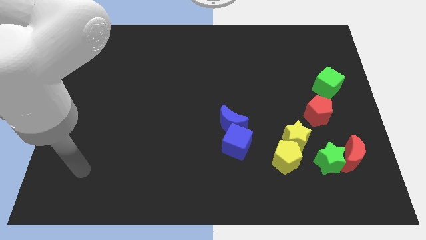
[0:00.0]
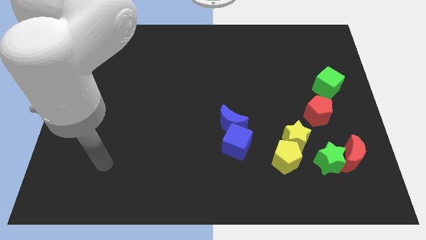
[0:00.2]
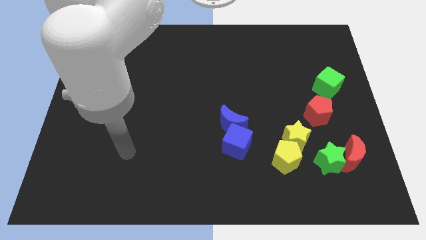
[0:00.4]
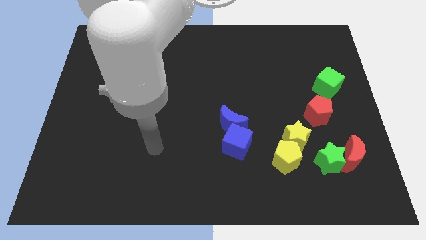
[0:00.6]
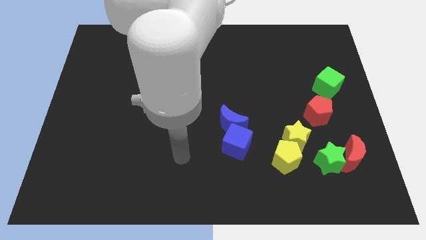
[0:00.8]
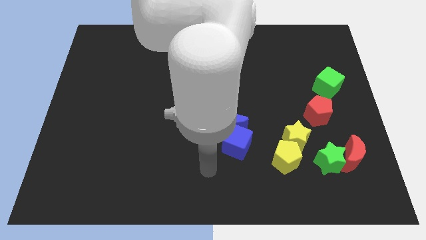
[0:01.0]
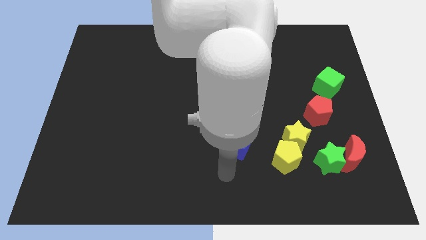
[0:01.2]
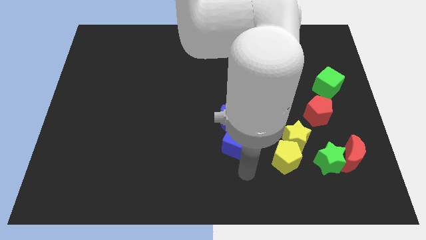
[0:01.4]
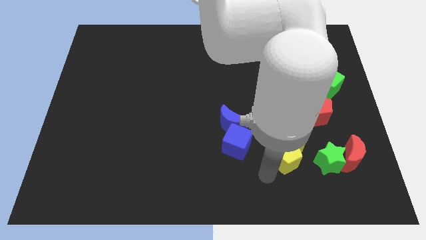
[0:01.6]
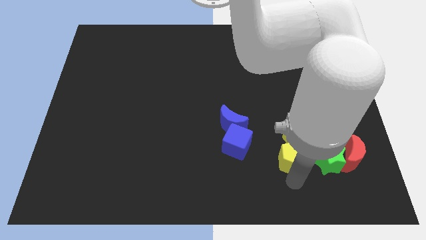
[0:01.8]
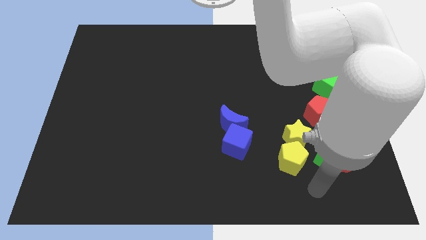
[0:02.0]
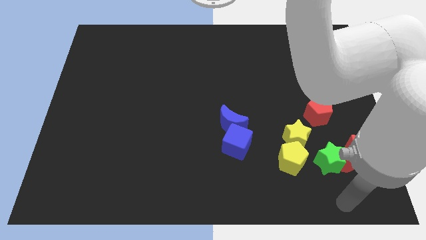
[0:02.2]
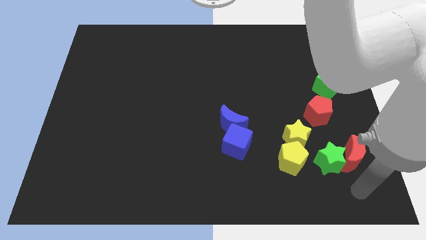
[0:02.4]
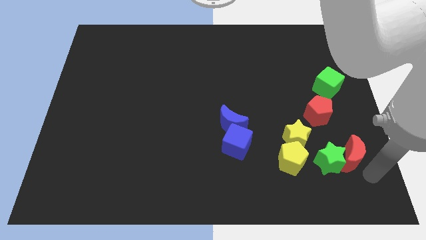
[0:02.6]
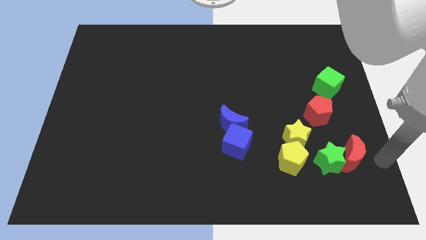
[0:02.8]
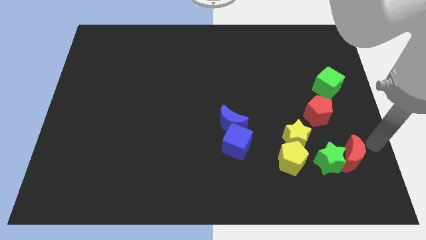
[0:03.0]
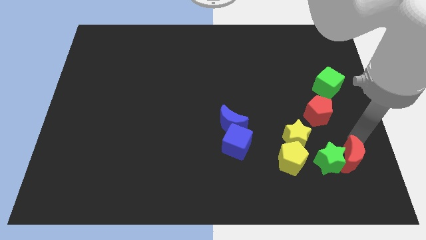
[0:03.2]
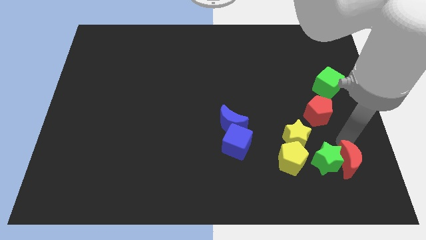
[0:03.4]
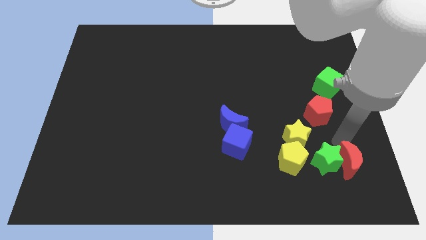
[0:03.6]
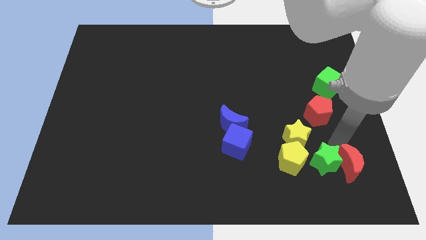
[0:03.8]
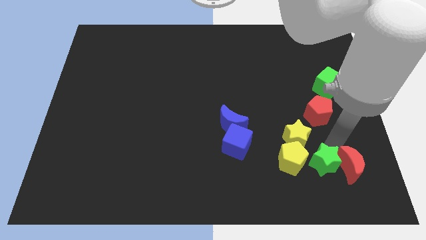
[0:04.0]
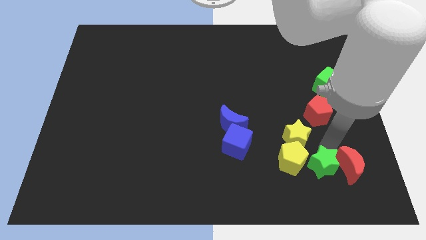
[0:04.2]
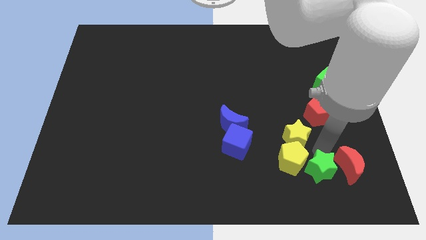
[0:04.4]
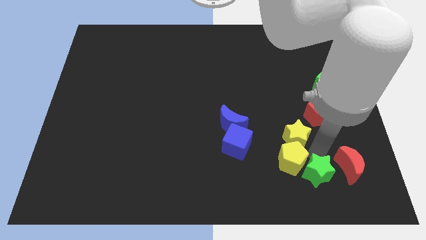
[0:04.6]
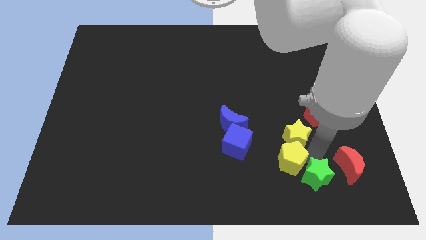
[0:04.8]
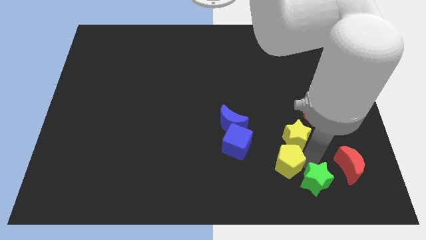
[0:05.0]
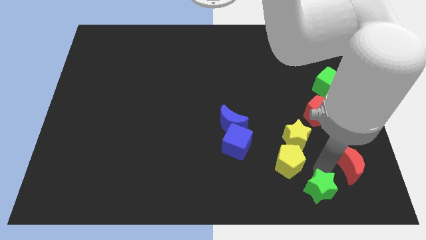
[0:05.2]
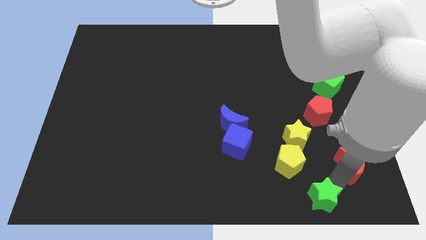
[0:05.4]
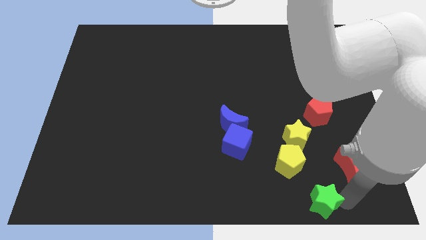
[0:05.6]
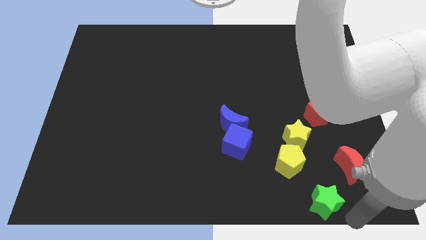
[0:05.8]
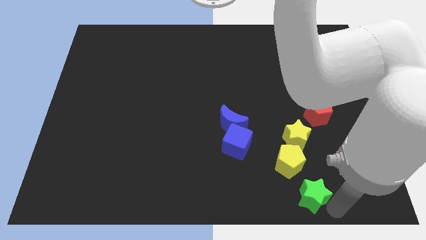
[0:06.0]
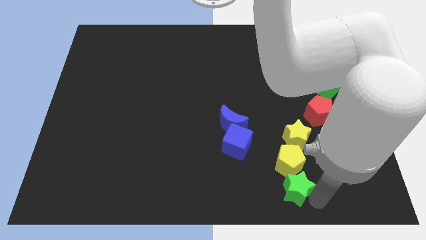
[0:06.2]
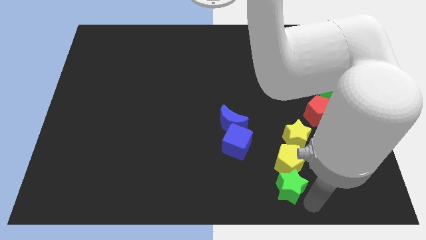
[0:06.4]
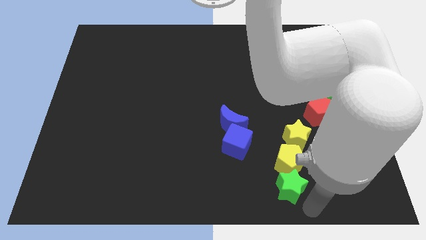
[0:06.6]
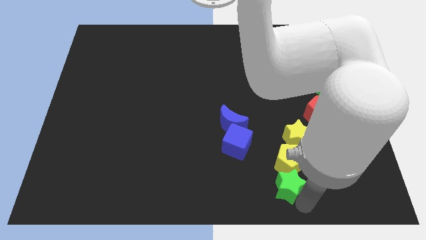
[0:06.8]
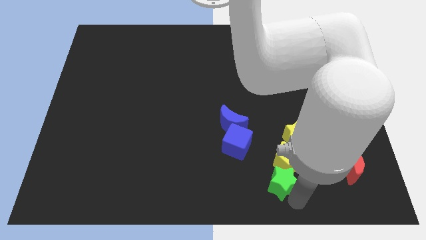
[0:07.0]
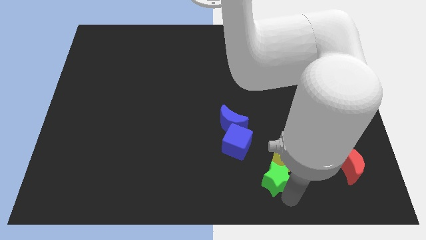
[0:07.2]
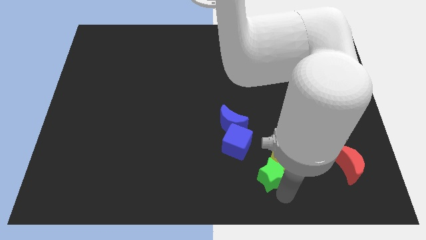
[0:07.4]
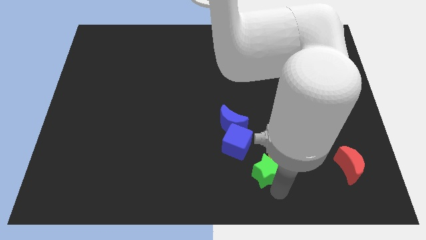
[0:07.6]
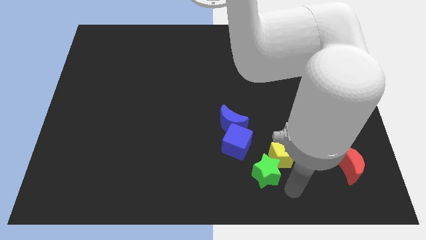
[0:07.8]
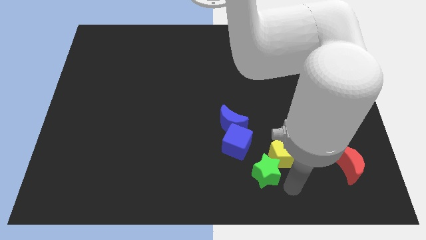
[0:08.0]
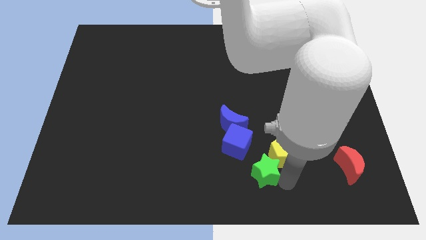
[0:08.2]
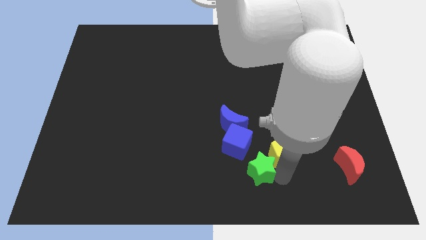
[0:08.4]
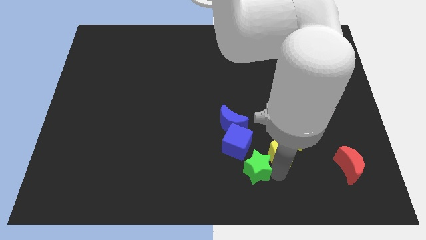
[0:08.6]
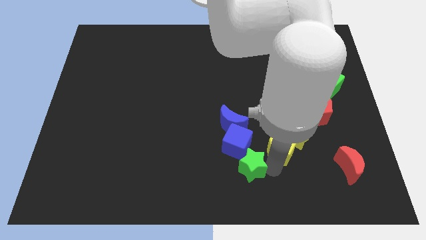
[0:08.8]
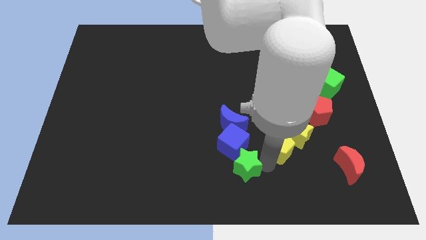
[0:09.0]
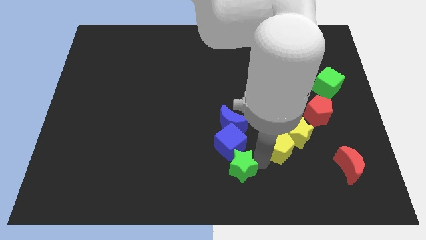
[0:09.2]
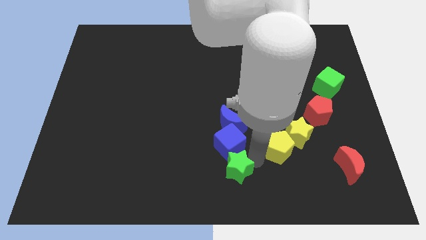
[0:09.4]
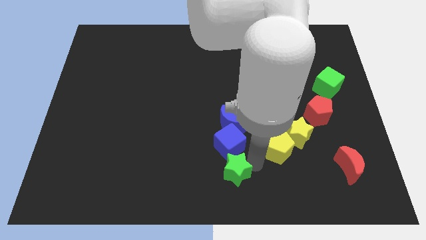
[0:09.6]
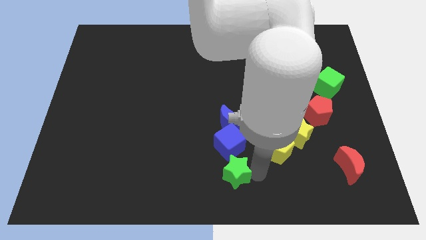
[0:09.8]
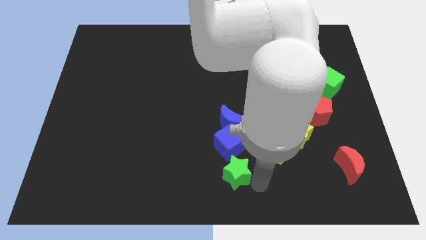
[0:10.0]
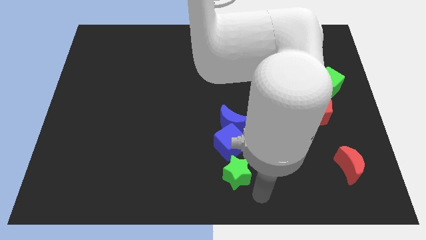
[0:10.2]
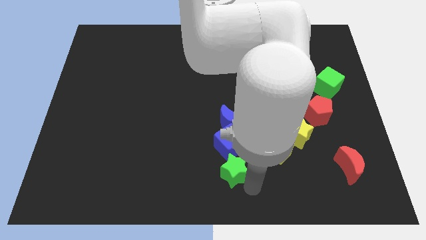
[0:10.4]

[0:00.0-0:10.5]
slide the green star left

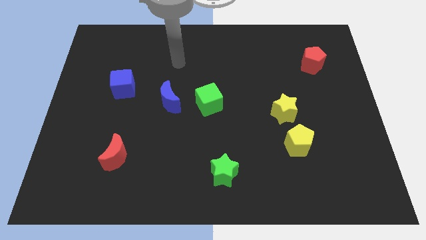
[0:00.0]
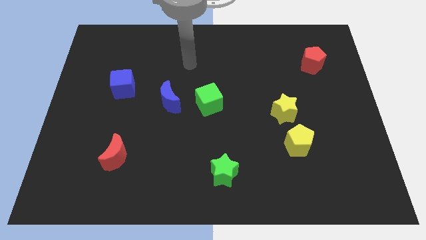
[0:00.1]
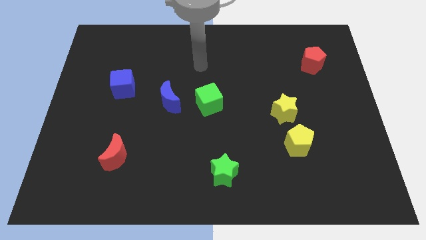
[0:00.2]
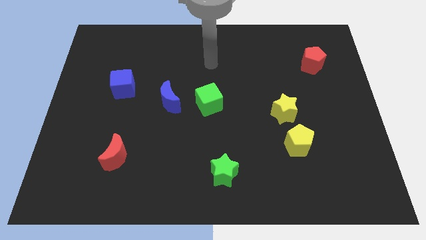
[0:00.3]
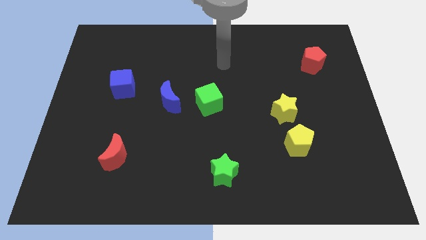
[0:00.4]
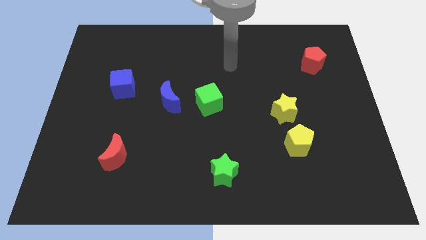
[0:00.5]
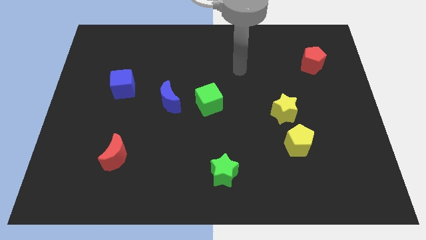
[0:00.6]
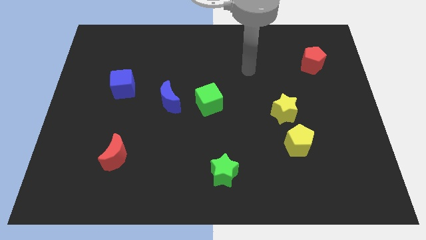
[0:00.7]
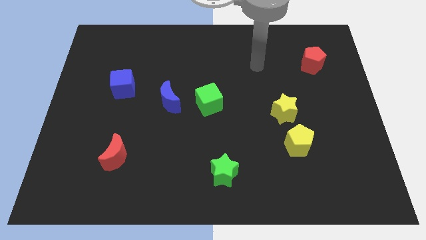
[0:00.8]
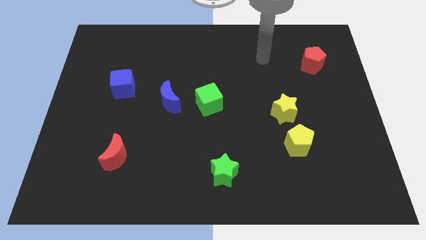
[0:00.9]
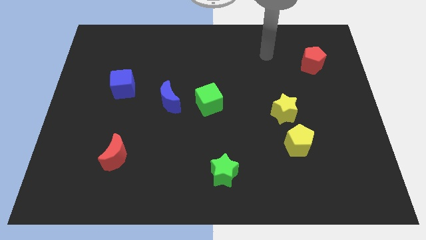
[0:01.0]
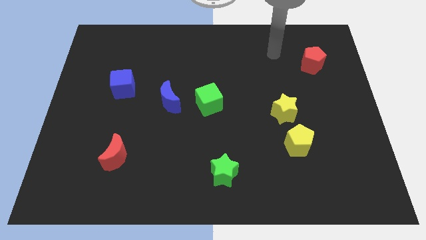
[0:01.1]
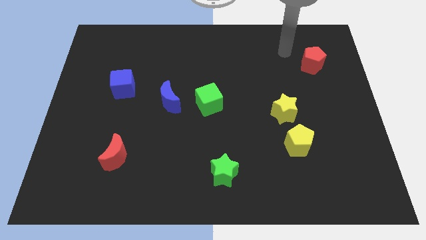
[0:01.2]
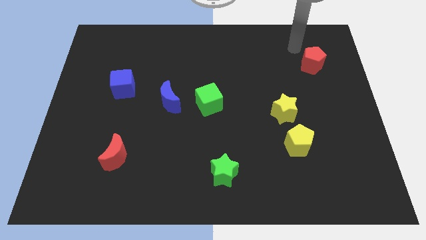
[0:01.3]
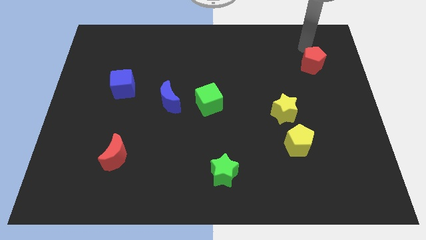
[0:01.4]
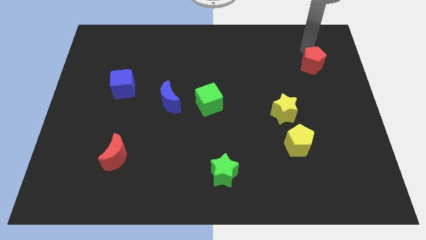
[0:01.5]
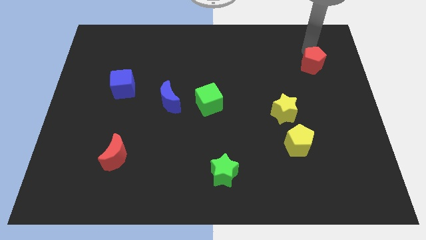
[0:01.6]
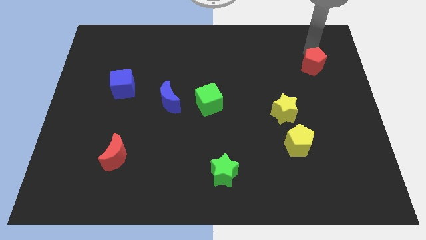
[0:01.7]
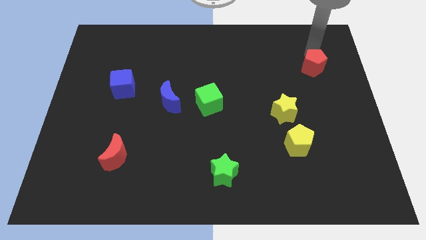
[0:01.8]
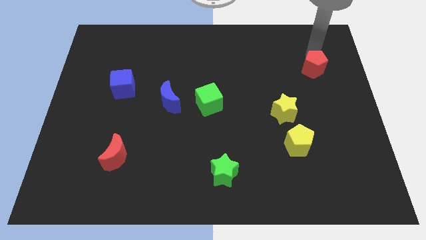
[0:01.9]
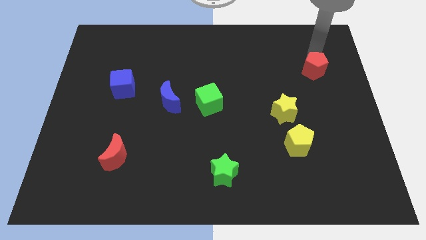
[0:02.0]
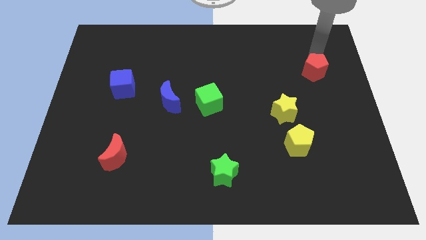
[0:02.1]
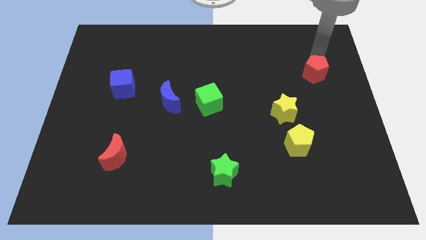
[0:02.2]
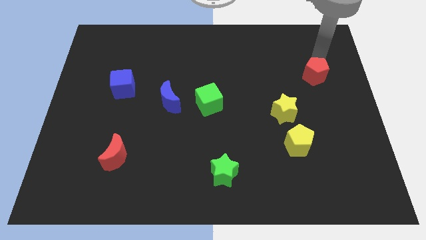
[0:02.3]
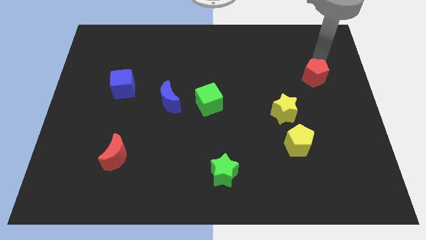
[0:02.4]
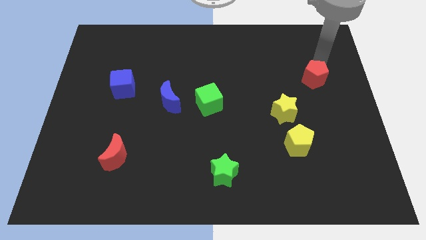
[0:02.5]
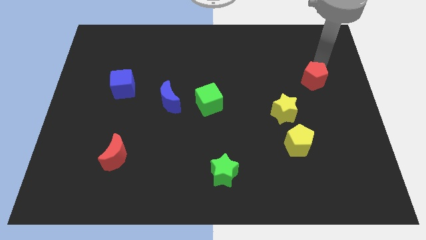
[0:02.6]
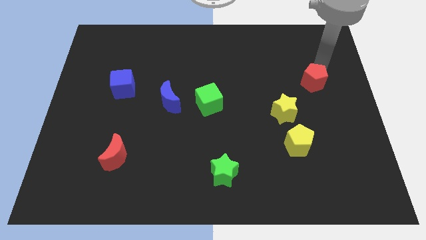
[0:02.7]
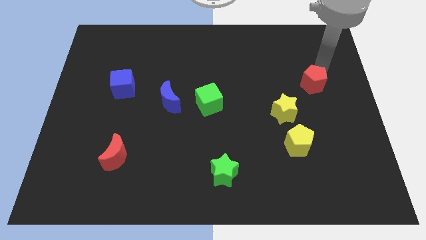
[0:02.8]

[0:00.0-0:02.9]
move the red pentagon downwards a little bit
